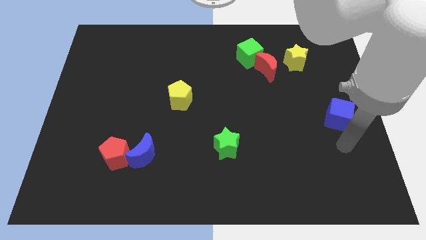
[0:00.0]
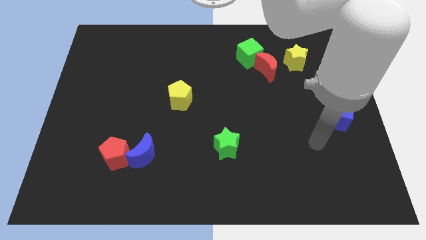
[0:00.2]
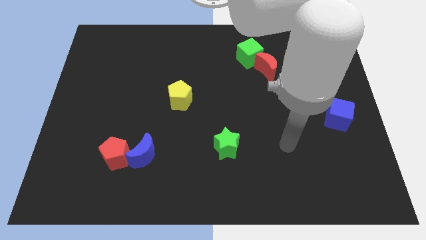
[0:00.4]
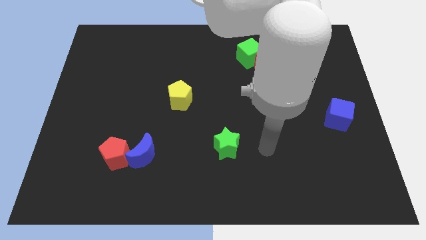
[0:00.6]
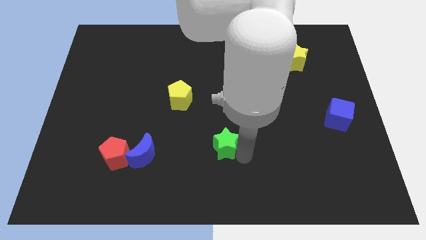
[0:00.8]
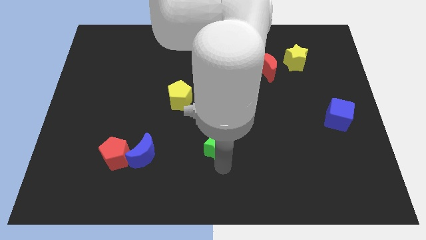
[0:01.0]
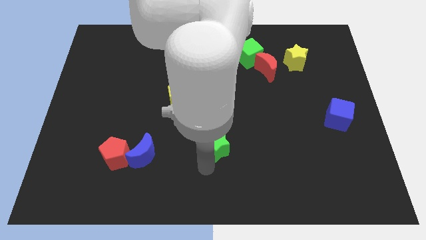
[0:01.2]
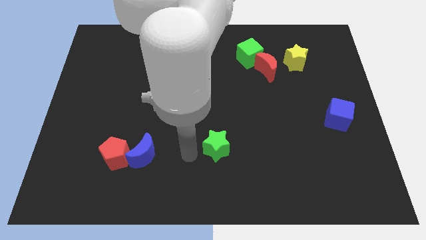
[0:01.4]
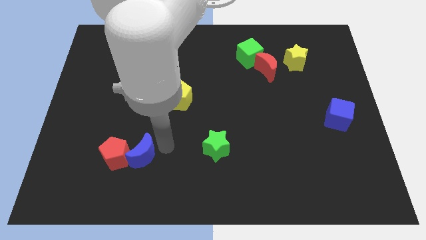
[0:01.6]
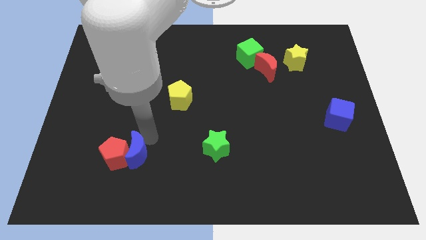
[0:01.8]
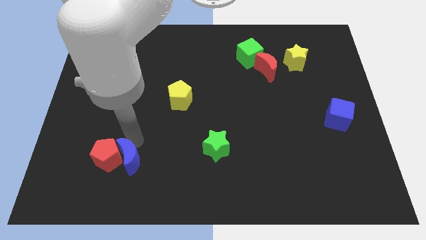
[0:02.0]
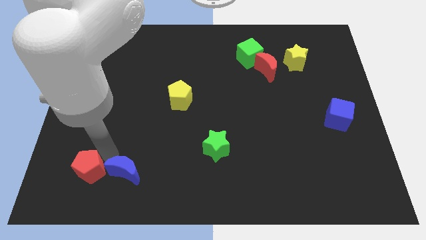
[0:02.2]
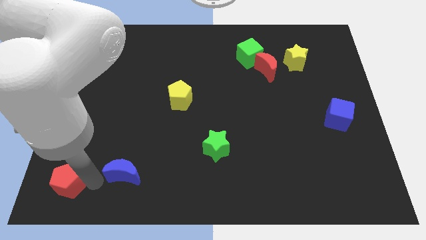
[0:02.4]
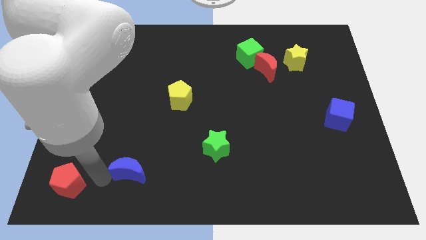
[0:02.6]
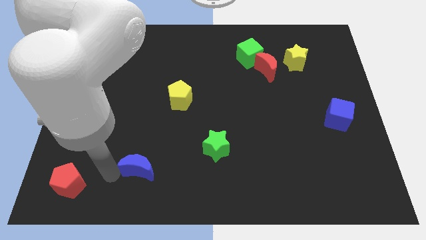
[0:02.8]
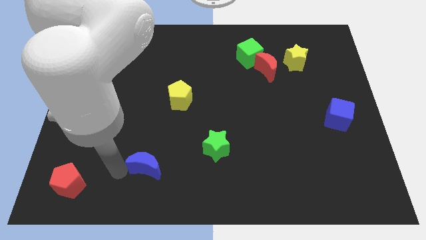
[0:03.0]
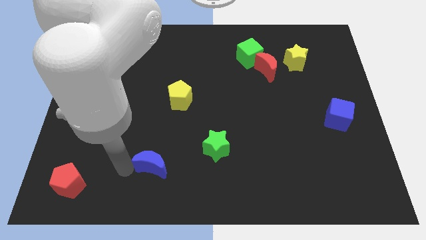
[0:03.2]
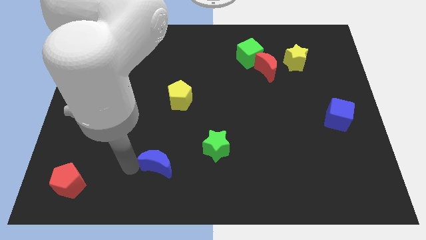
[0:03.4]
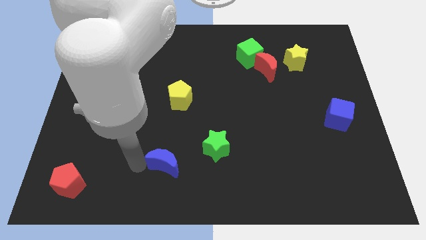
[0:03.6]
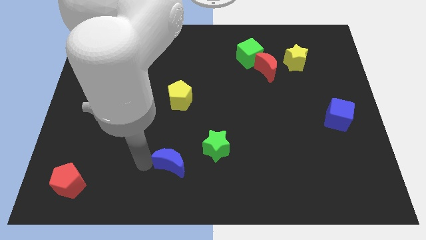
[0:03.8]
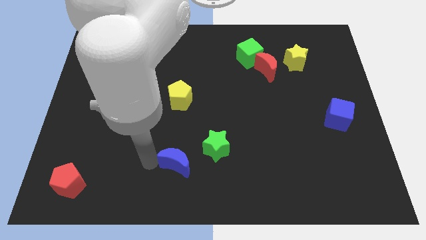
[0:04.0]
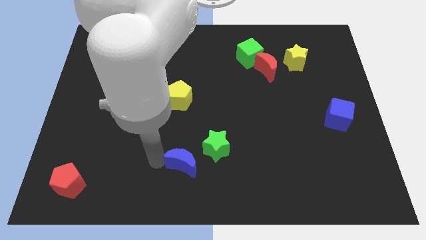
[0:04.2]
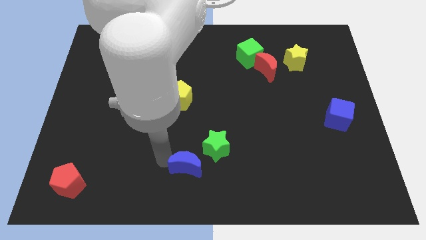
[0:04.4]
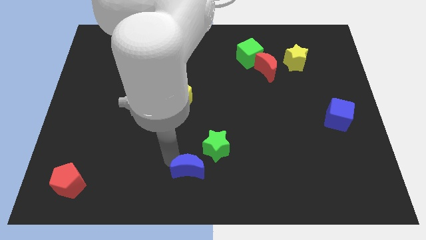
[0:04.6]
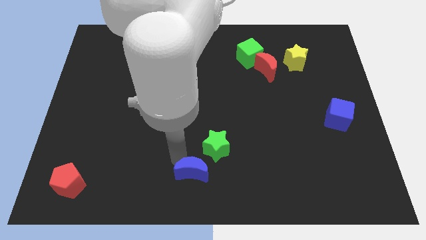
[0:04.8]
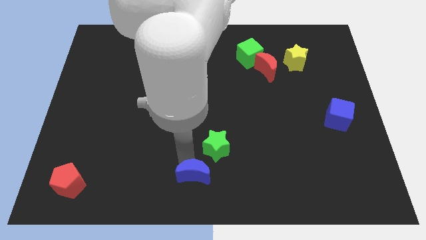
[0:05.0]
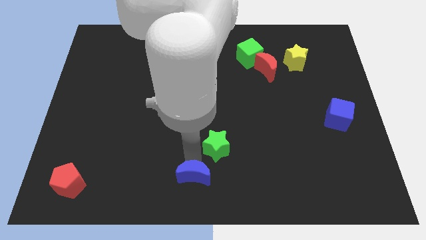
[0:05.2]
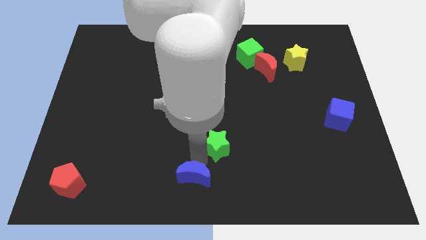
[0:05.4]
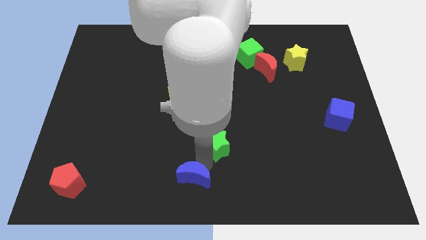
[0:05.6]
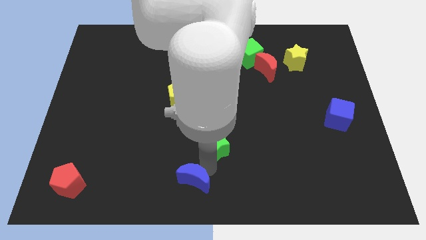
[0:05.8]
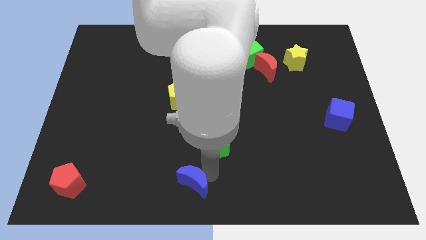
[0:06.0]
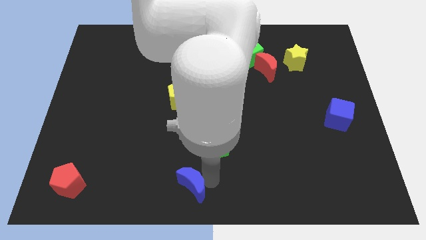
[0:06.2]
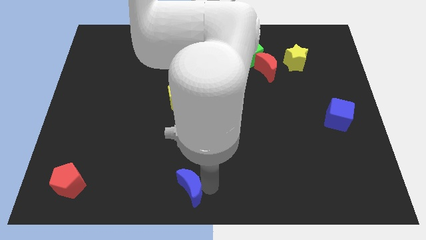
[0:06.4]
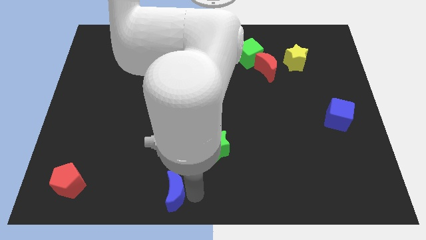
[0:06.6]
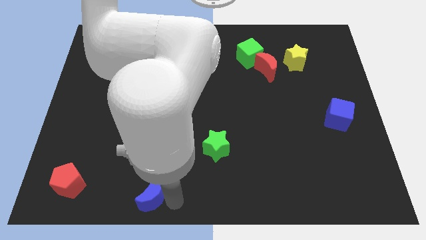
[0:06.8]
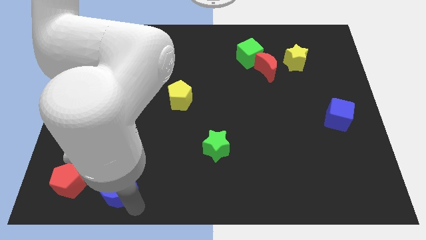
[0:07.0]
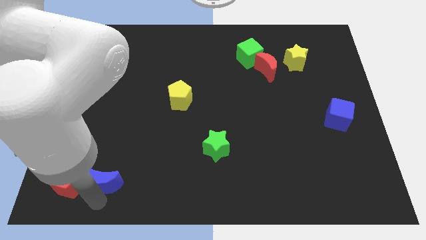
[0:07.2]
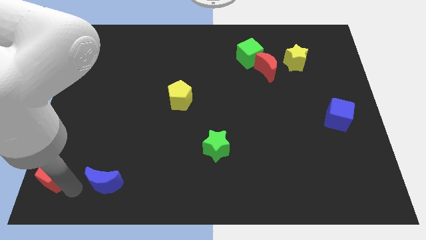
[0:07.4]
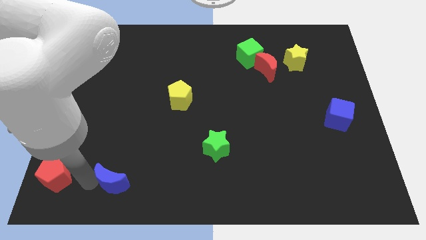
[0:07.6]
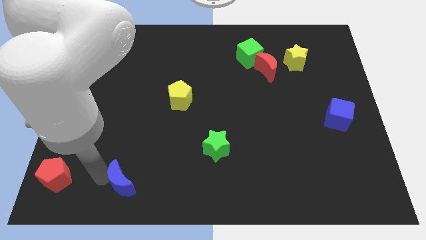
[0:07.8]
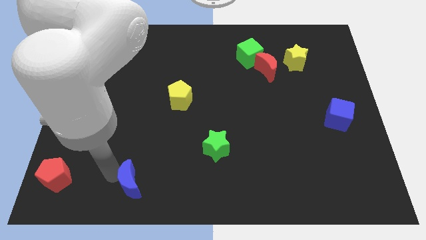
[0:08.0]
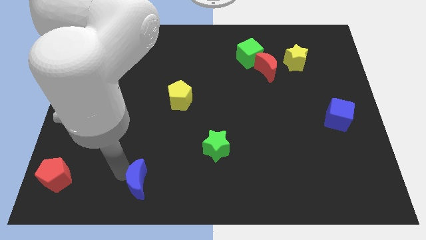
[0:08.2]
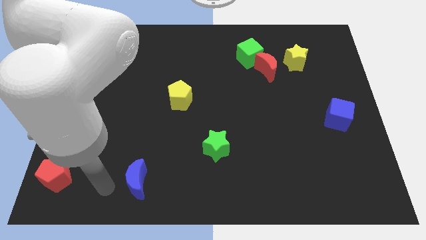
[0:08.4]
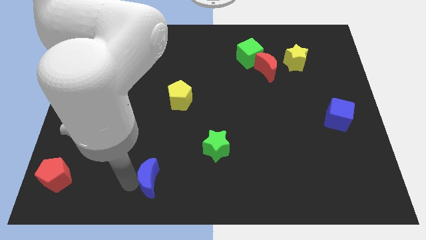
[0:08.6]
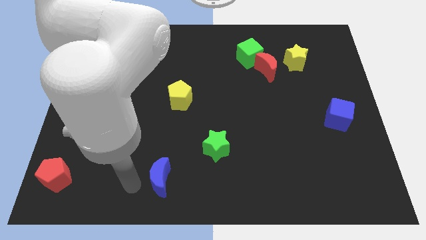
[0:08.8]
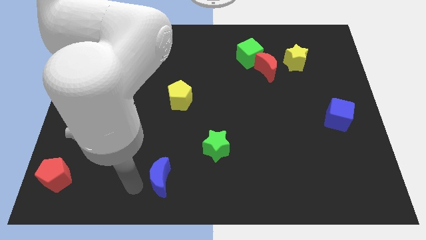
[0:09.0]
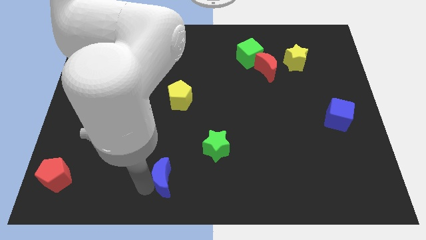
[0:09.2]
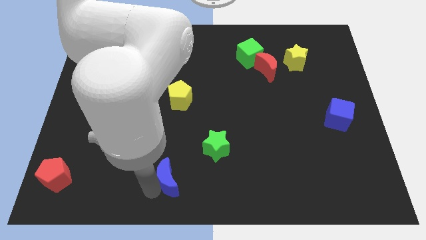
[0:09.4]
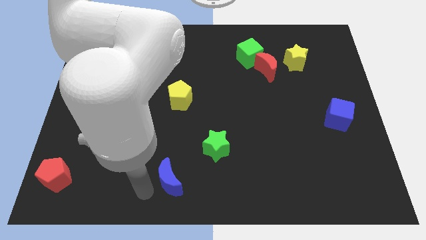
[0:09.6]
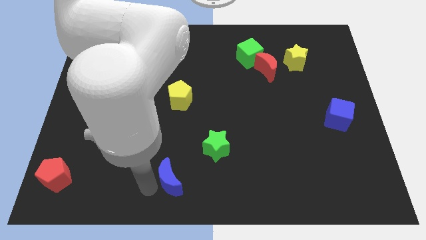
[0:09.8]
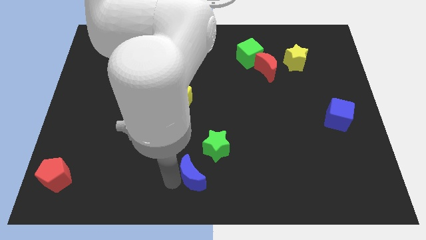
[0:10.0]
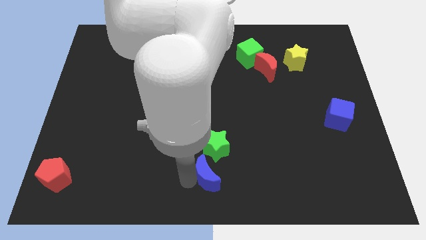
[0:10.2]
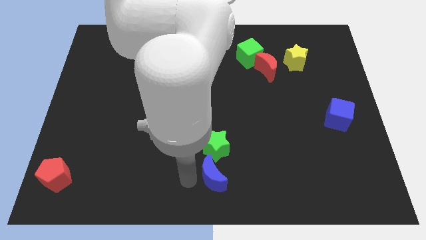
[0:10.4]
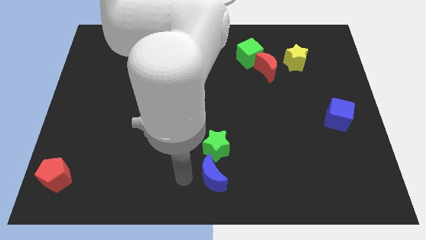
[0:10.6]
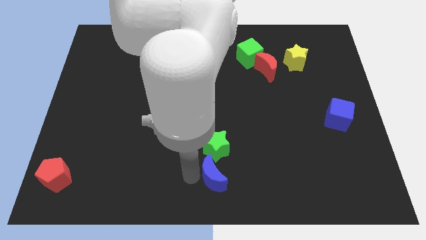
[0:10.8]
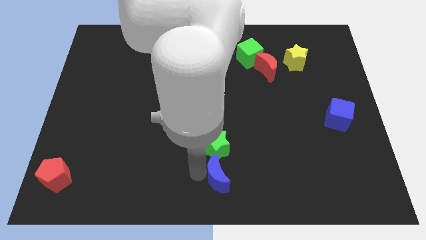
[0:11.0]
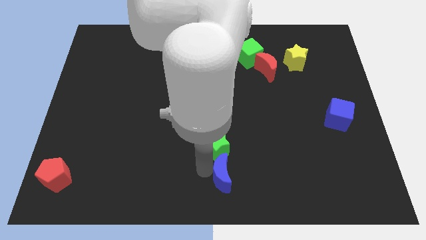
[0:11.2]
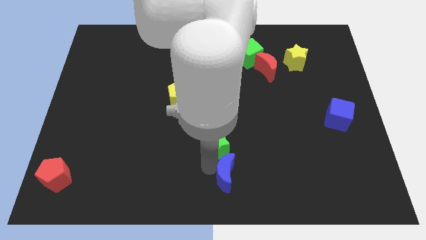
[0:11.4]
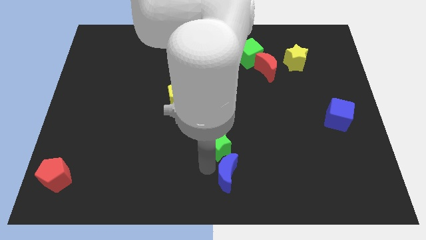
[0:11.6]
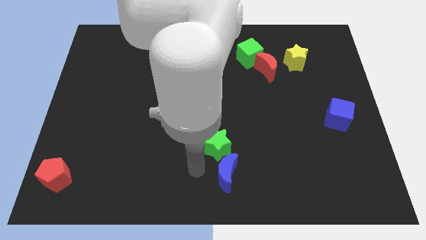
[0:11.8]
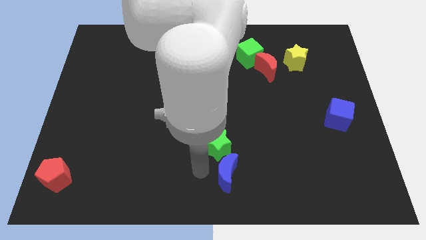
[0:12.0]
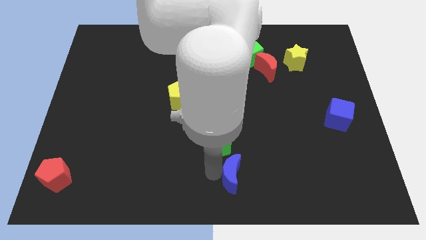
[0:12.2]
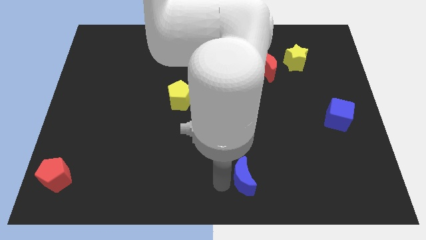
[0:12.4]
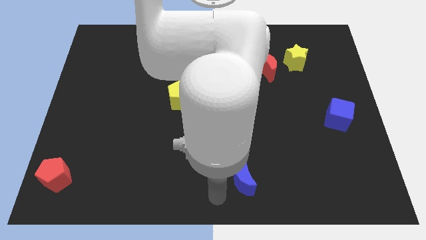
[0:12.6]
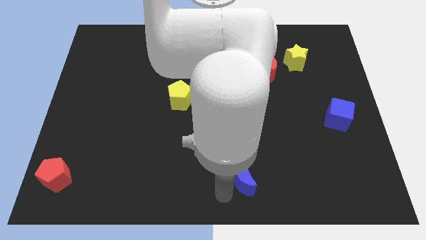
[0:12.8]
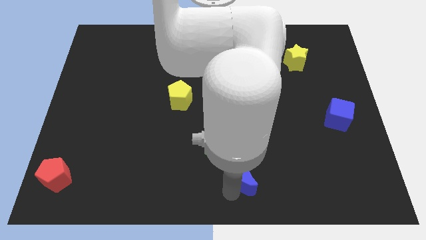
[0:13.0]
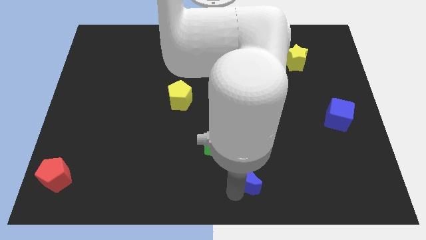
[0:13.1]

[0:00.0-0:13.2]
push the blue moon right

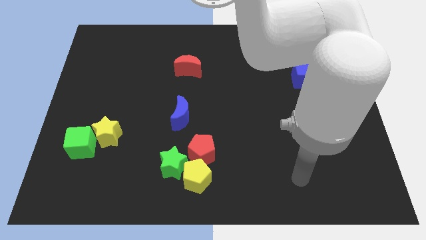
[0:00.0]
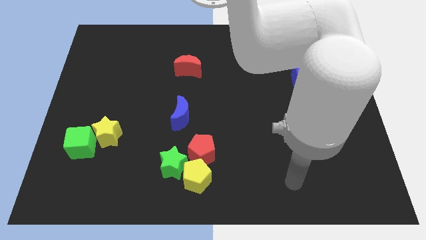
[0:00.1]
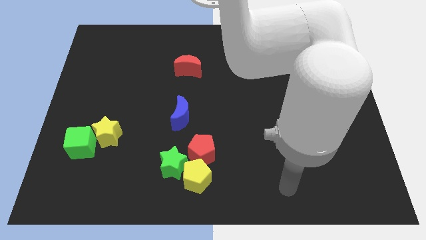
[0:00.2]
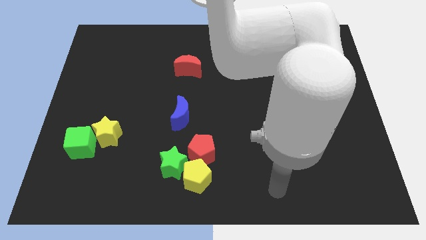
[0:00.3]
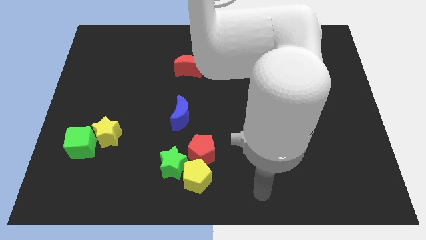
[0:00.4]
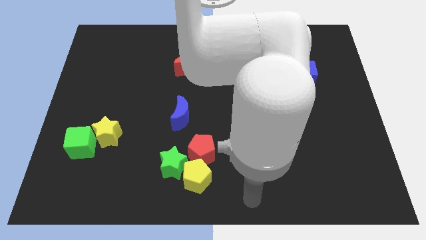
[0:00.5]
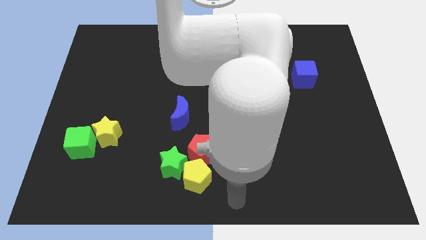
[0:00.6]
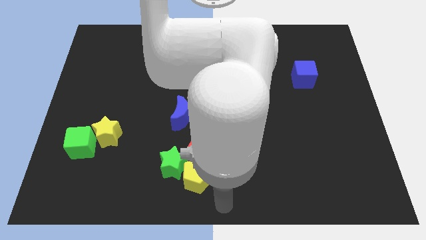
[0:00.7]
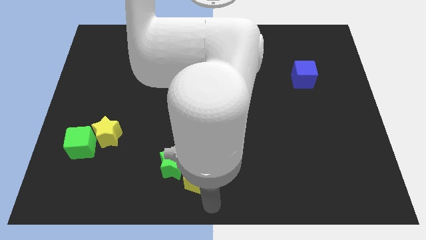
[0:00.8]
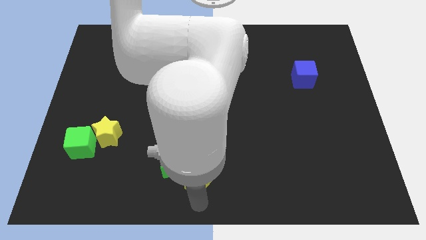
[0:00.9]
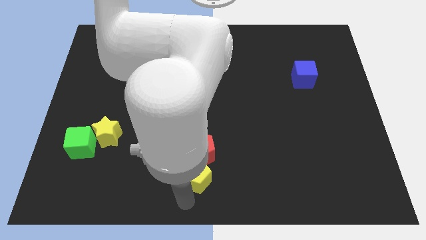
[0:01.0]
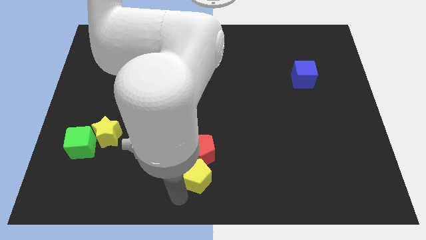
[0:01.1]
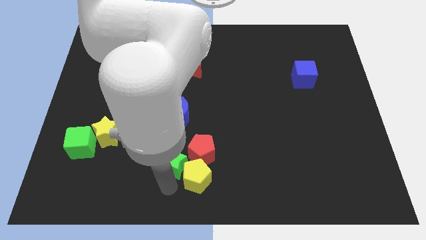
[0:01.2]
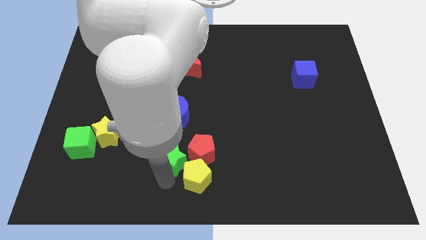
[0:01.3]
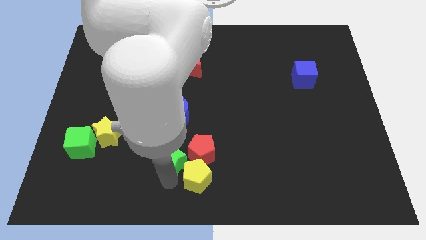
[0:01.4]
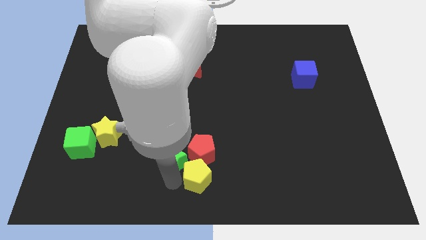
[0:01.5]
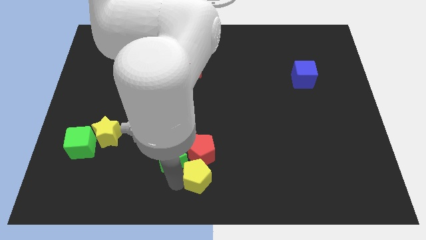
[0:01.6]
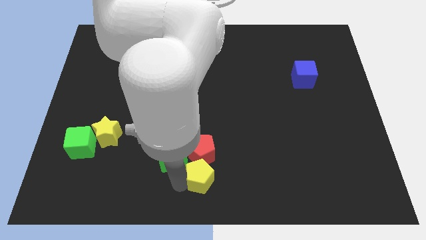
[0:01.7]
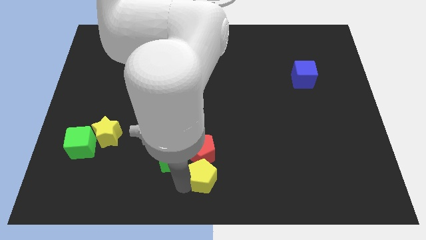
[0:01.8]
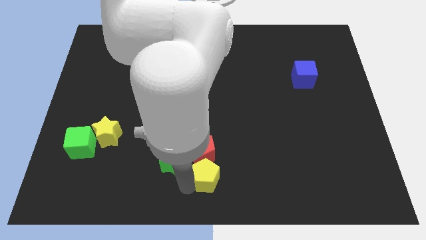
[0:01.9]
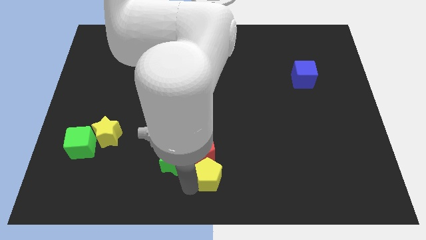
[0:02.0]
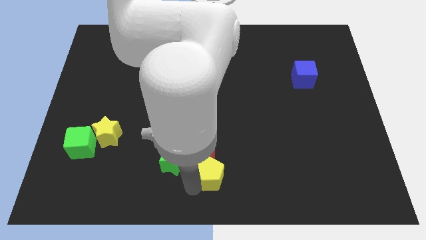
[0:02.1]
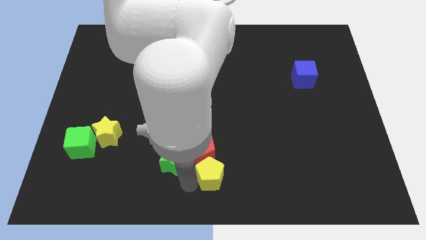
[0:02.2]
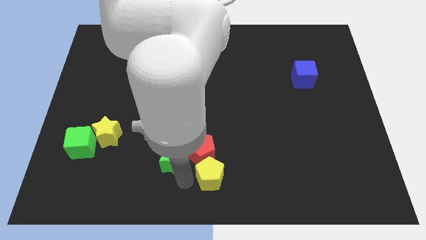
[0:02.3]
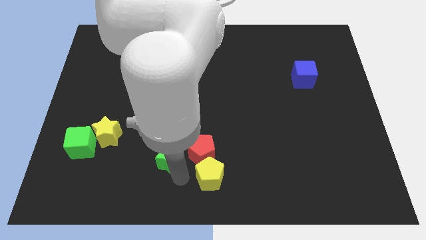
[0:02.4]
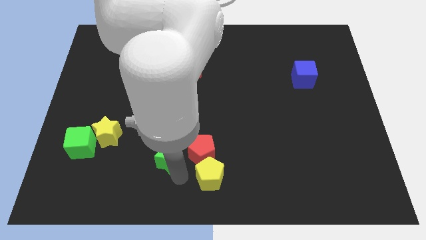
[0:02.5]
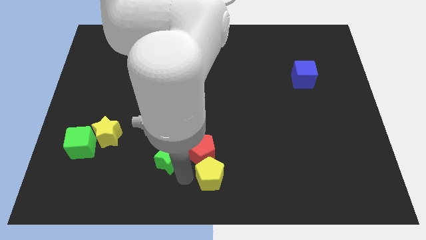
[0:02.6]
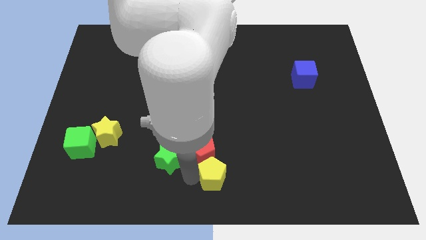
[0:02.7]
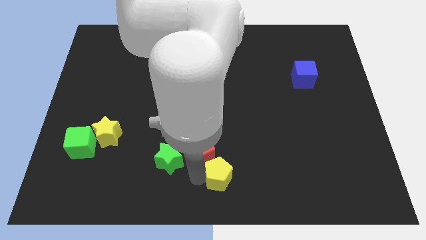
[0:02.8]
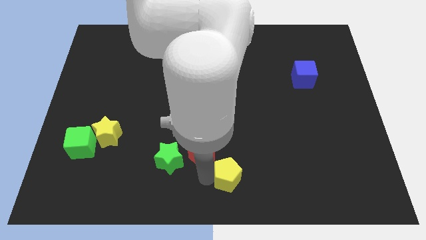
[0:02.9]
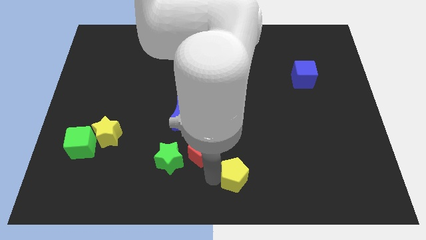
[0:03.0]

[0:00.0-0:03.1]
push the yellow pentagon to the right somewhat
